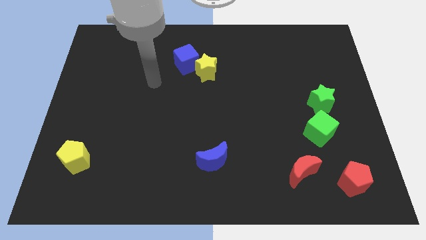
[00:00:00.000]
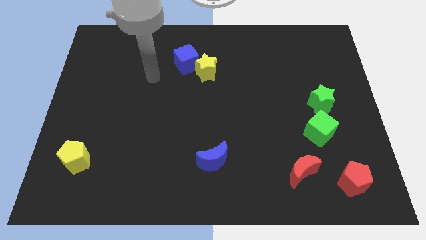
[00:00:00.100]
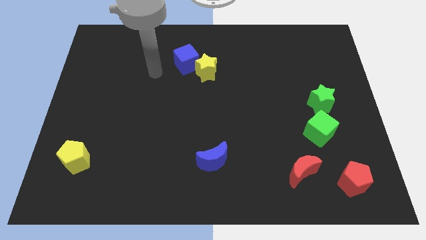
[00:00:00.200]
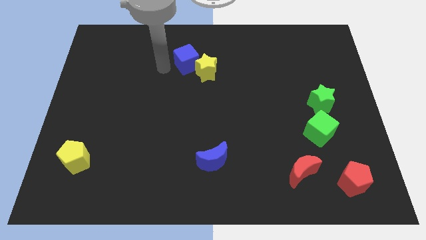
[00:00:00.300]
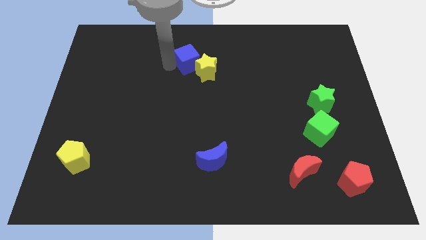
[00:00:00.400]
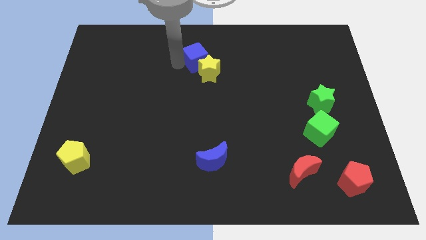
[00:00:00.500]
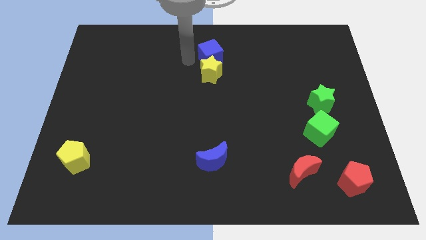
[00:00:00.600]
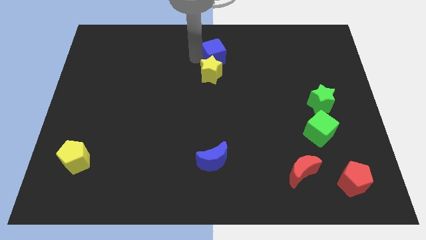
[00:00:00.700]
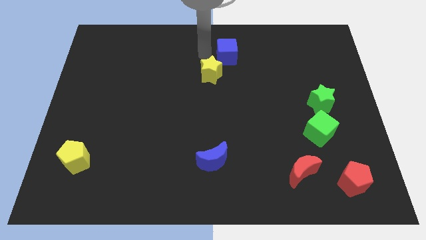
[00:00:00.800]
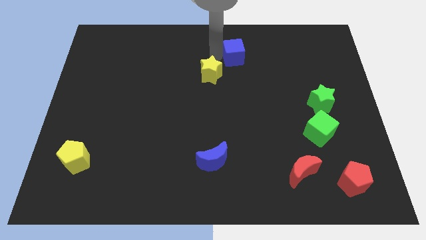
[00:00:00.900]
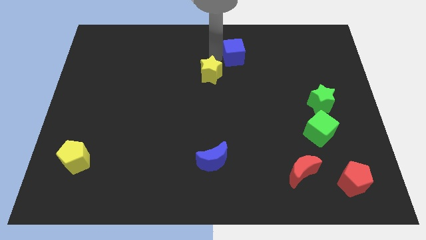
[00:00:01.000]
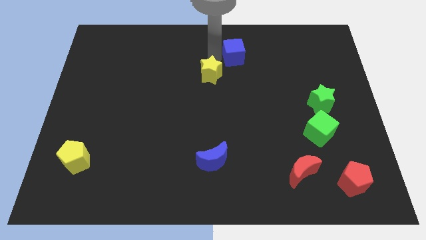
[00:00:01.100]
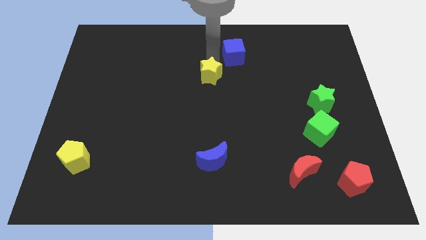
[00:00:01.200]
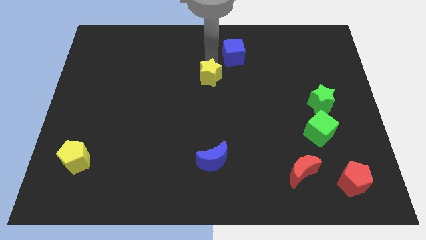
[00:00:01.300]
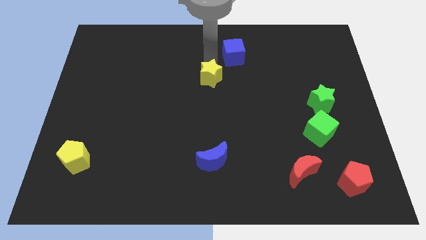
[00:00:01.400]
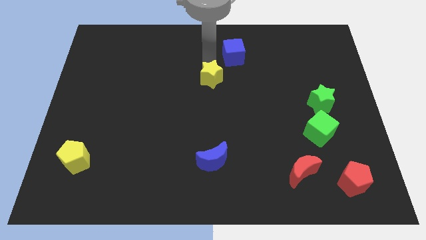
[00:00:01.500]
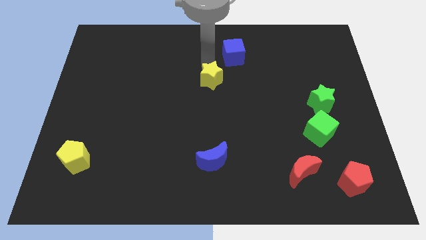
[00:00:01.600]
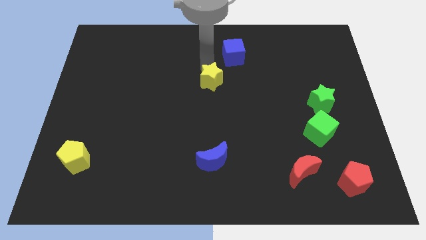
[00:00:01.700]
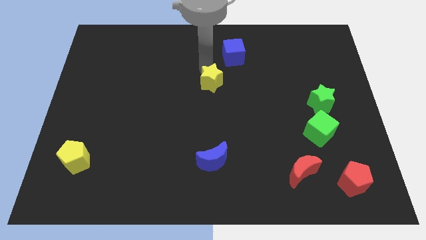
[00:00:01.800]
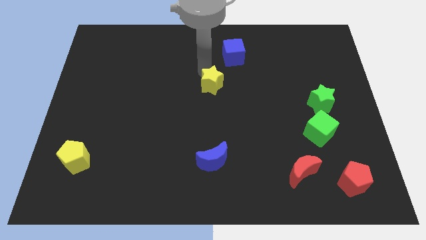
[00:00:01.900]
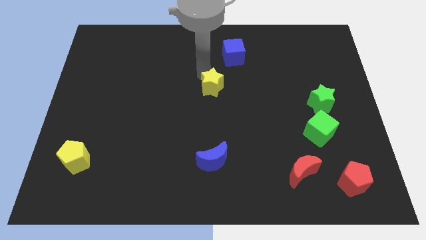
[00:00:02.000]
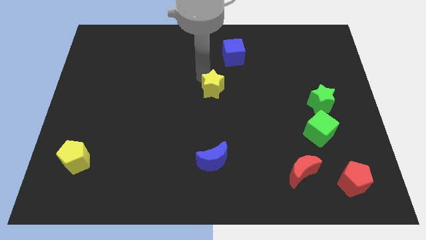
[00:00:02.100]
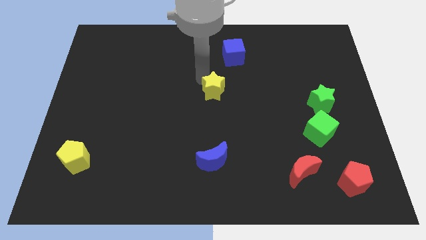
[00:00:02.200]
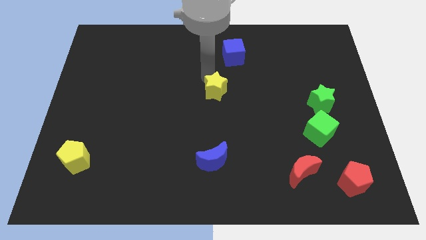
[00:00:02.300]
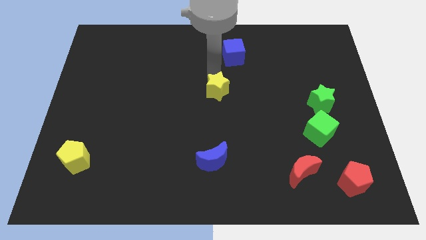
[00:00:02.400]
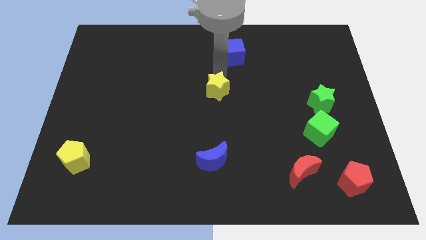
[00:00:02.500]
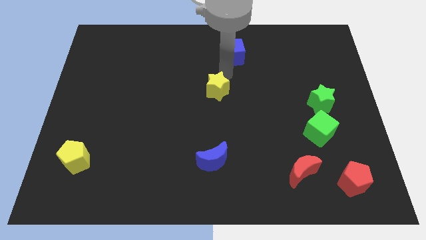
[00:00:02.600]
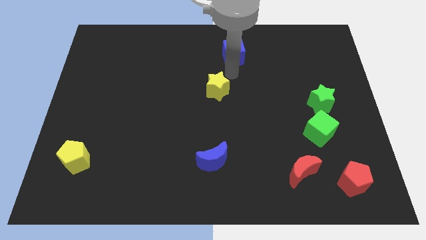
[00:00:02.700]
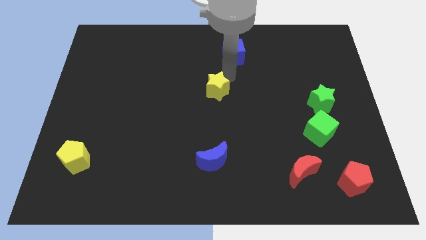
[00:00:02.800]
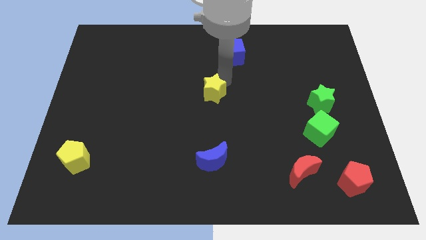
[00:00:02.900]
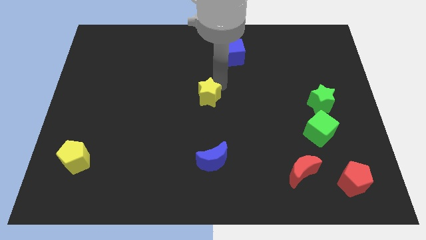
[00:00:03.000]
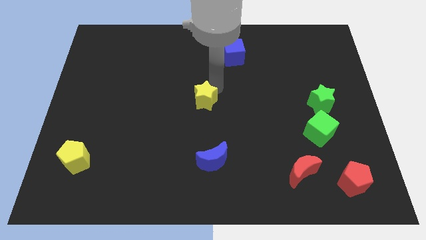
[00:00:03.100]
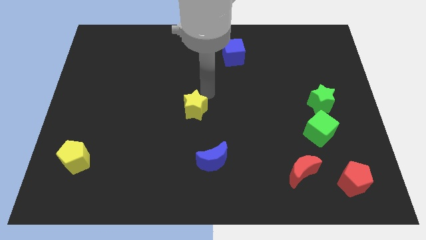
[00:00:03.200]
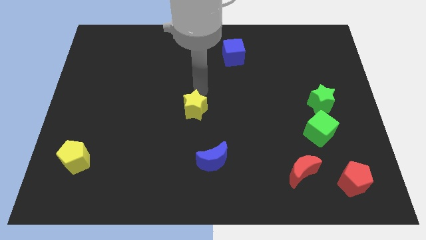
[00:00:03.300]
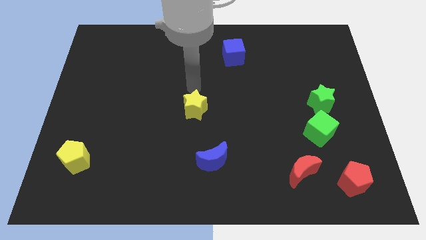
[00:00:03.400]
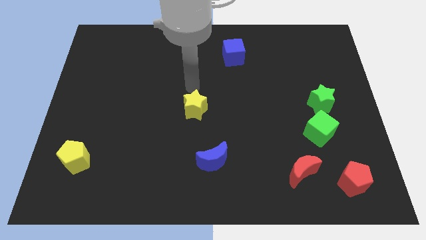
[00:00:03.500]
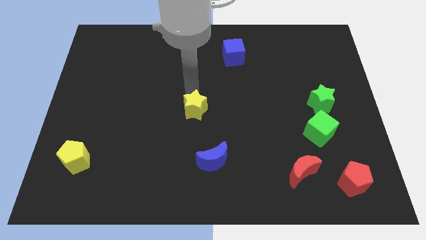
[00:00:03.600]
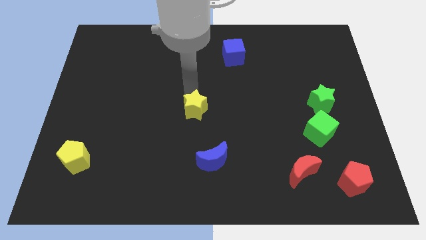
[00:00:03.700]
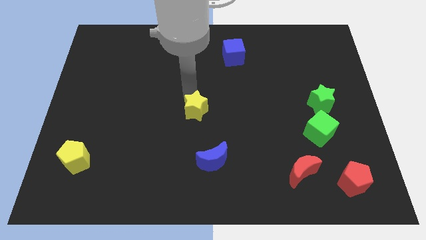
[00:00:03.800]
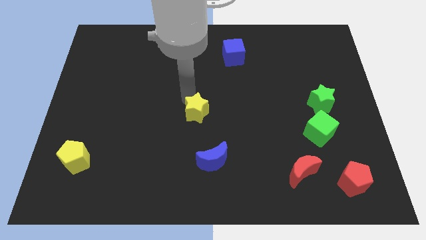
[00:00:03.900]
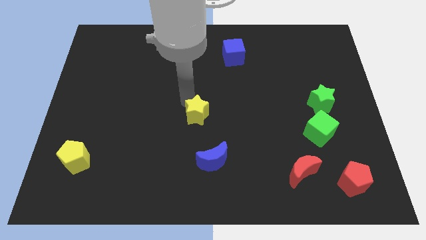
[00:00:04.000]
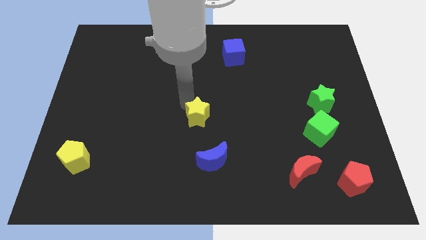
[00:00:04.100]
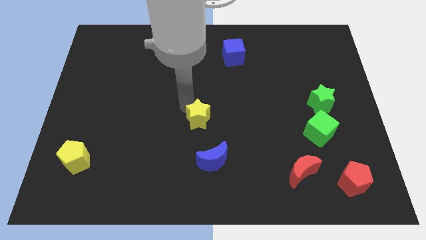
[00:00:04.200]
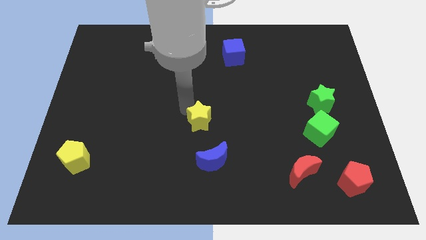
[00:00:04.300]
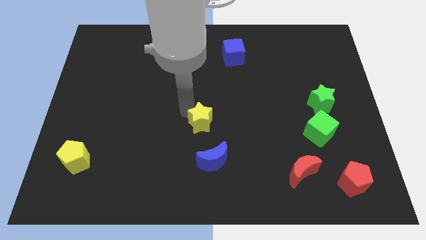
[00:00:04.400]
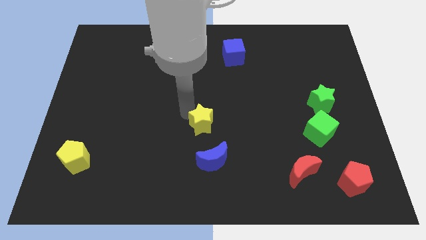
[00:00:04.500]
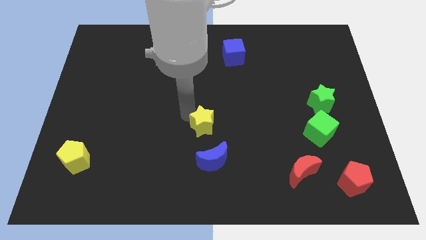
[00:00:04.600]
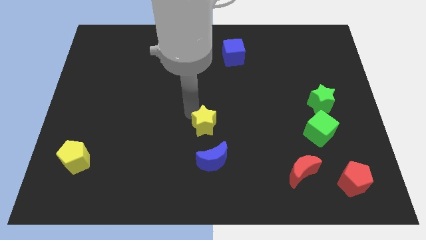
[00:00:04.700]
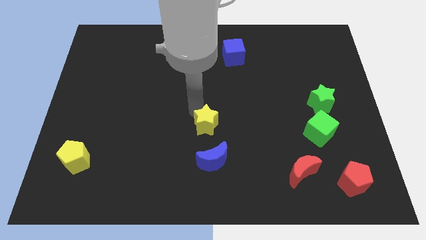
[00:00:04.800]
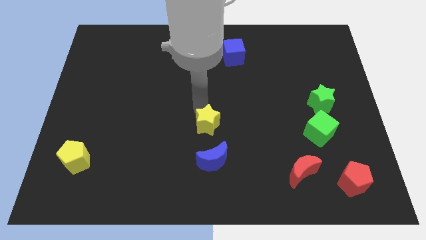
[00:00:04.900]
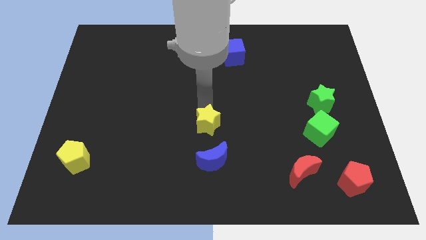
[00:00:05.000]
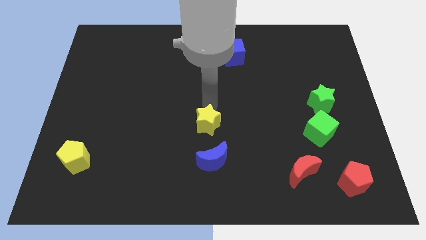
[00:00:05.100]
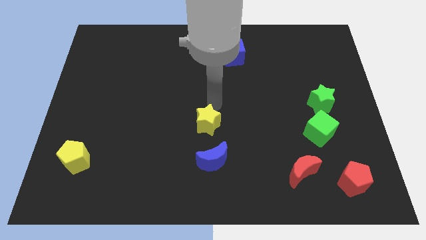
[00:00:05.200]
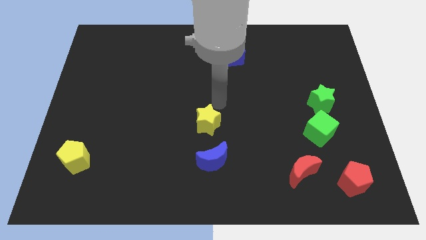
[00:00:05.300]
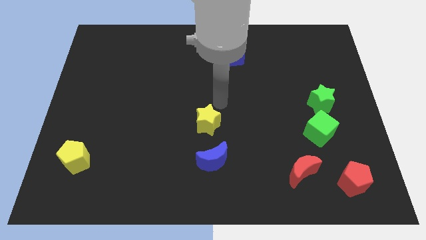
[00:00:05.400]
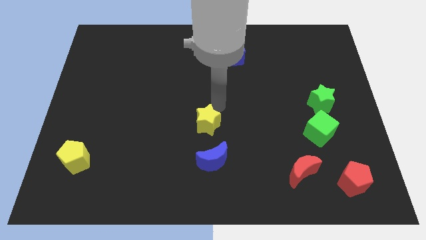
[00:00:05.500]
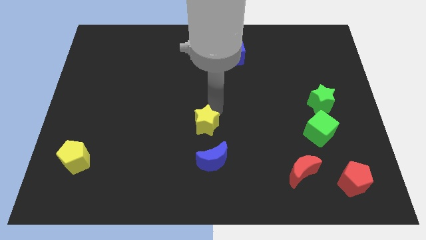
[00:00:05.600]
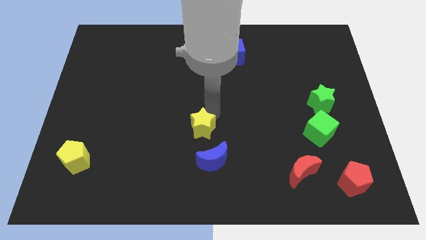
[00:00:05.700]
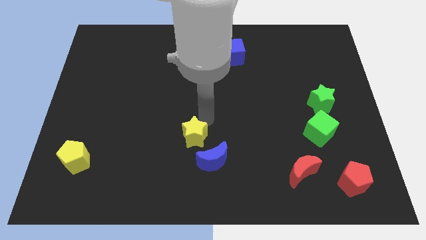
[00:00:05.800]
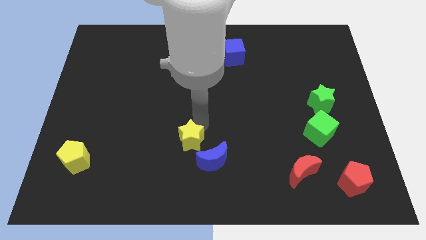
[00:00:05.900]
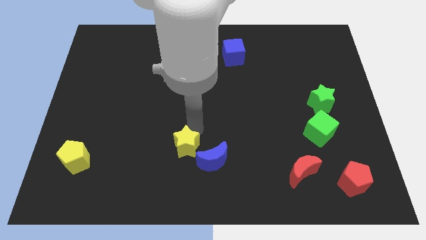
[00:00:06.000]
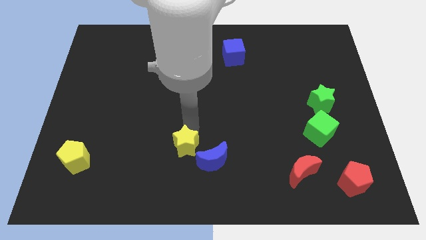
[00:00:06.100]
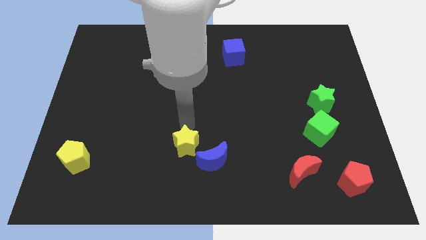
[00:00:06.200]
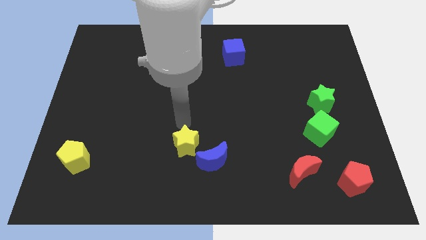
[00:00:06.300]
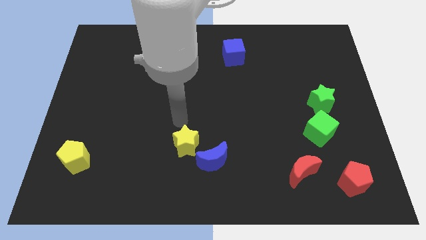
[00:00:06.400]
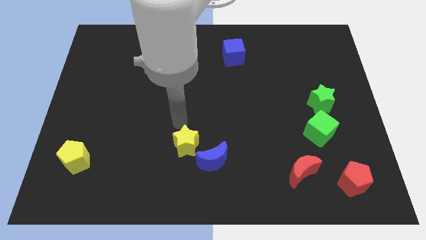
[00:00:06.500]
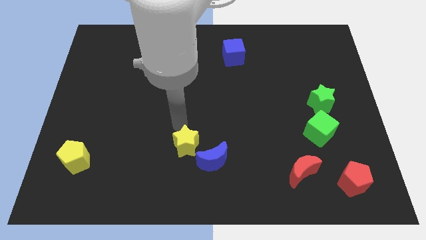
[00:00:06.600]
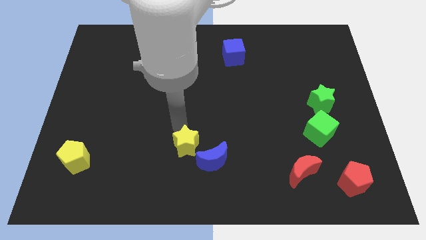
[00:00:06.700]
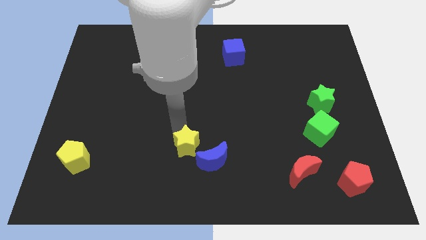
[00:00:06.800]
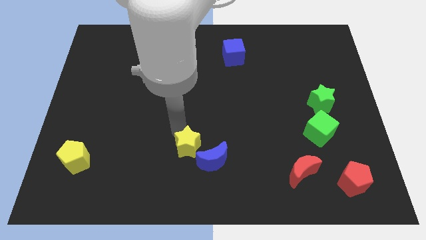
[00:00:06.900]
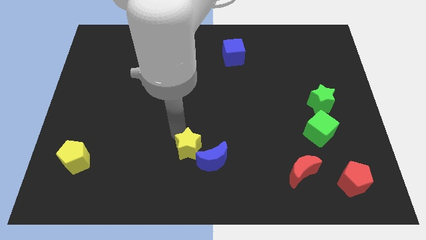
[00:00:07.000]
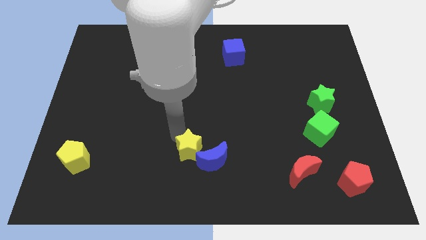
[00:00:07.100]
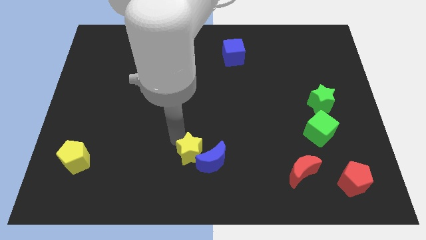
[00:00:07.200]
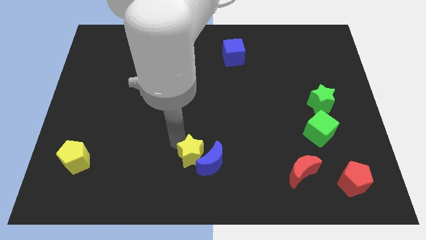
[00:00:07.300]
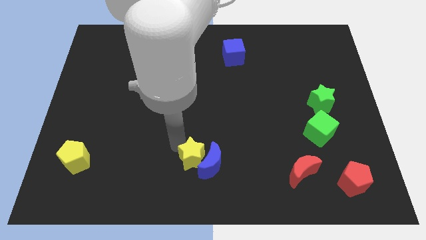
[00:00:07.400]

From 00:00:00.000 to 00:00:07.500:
slide the yellow star diagonally down and to the left of the blue moon
